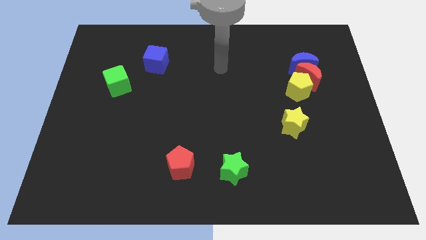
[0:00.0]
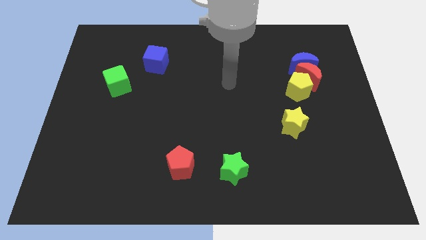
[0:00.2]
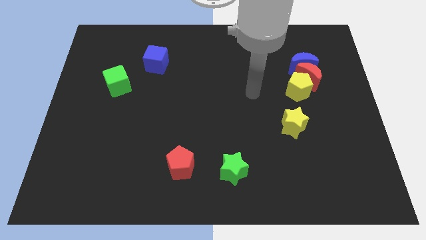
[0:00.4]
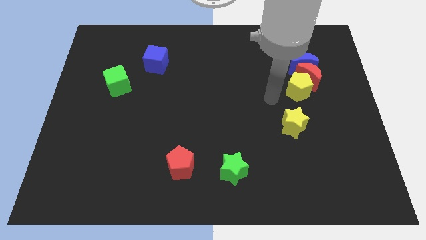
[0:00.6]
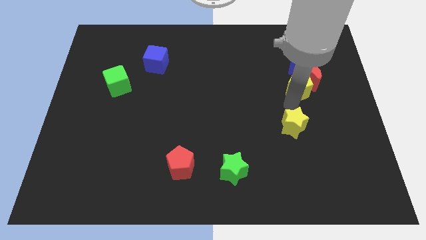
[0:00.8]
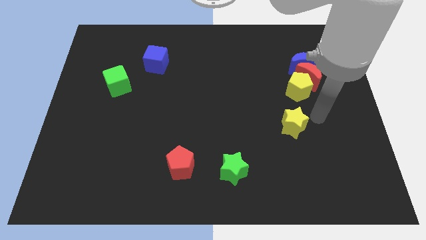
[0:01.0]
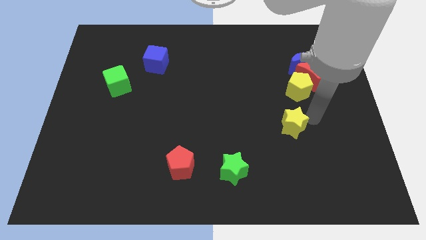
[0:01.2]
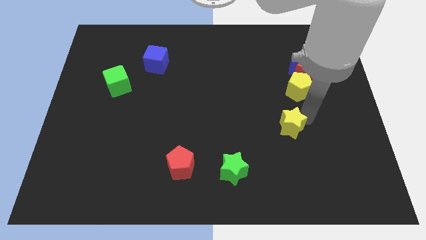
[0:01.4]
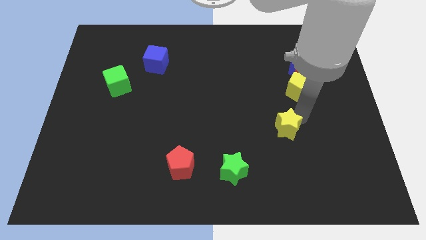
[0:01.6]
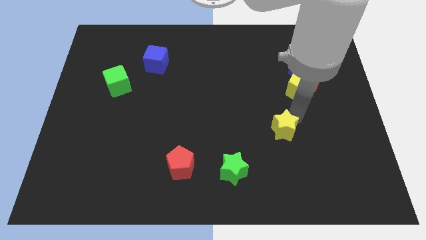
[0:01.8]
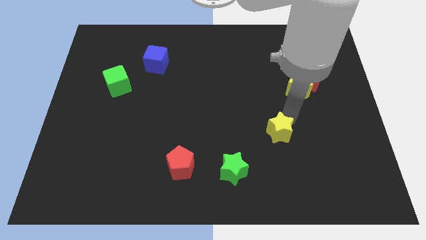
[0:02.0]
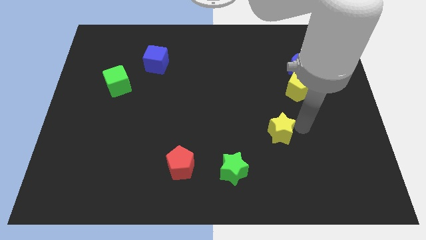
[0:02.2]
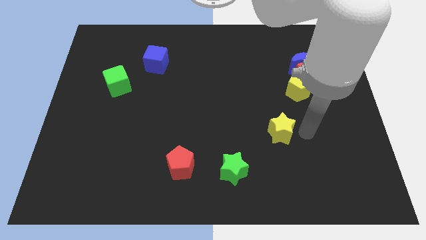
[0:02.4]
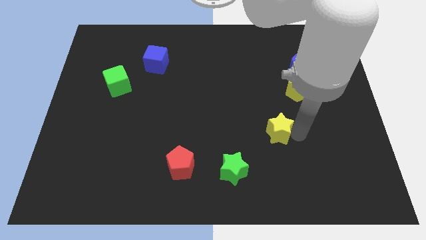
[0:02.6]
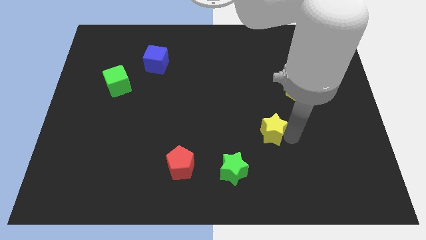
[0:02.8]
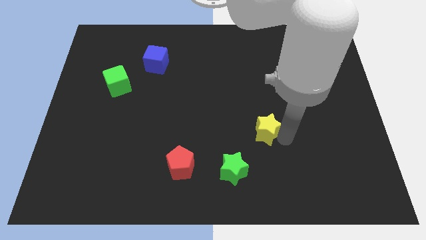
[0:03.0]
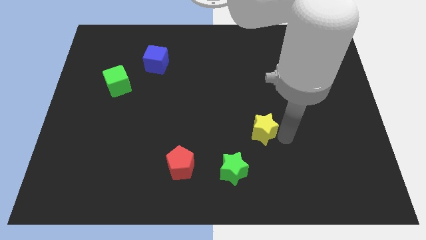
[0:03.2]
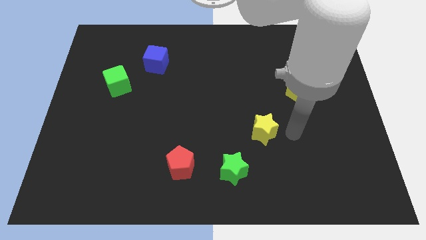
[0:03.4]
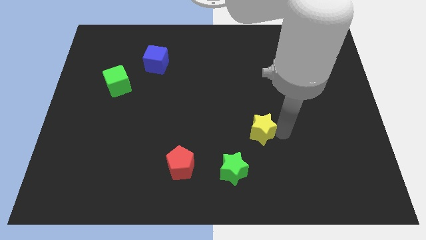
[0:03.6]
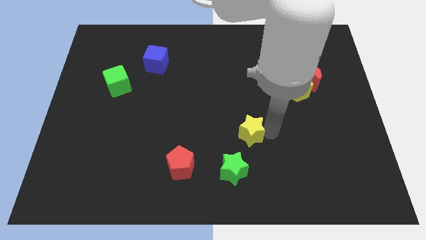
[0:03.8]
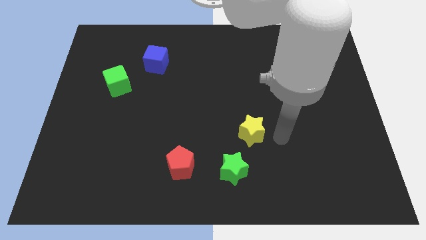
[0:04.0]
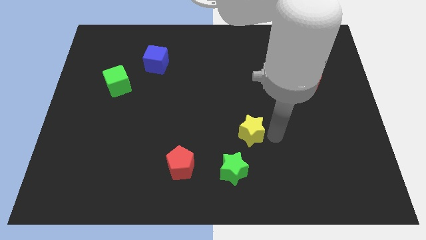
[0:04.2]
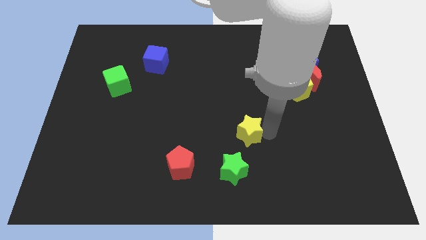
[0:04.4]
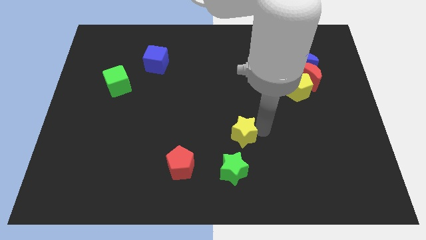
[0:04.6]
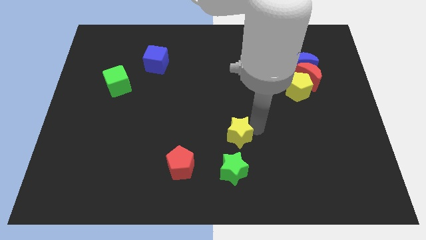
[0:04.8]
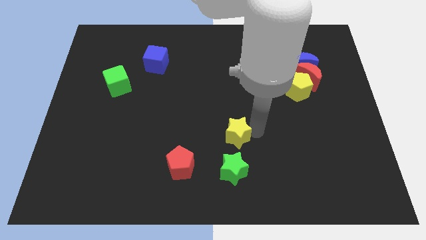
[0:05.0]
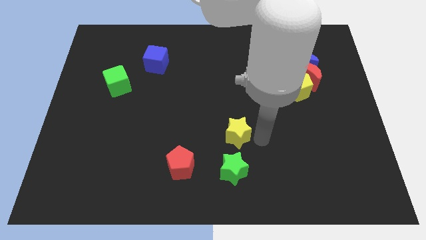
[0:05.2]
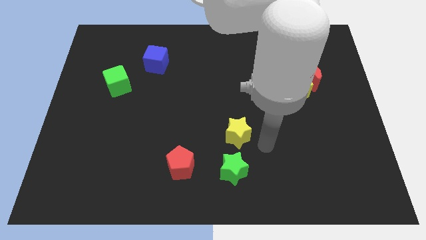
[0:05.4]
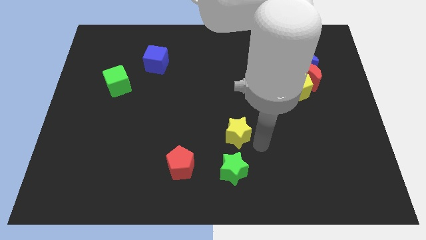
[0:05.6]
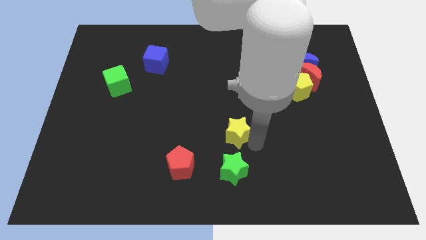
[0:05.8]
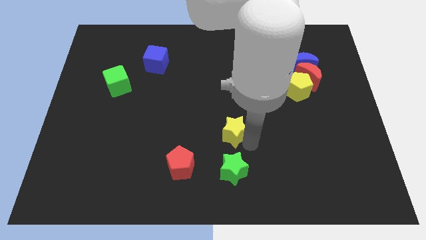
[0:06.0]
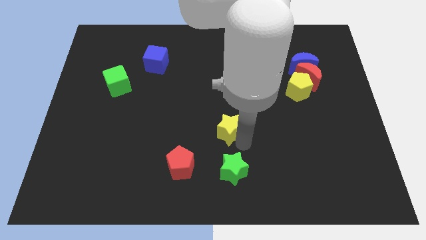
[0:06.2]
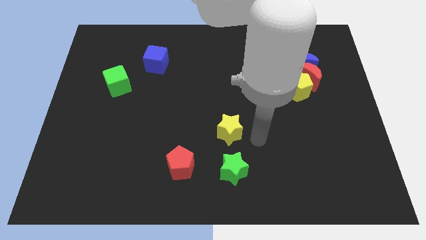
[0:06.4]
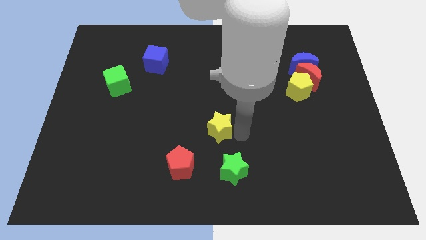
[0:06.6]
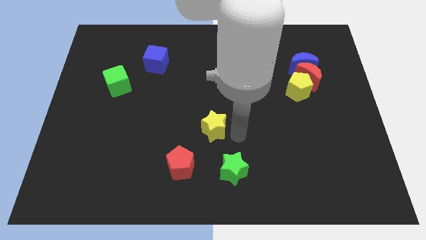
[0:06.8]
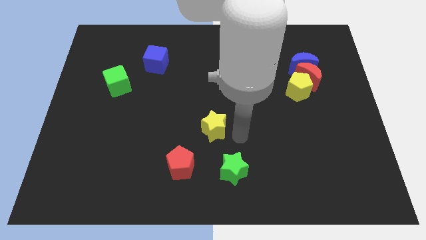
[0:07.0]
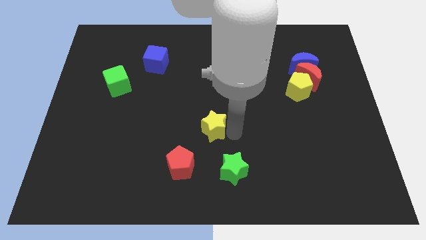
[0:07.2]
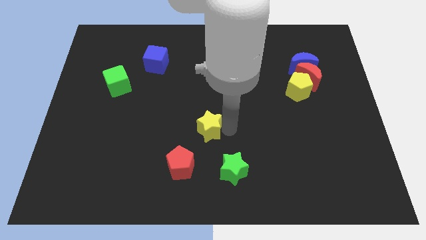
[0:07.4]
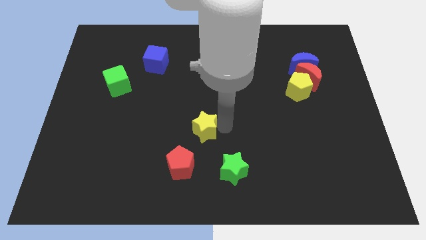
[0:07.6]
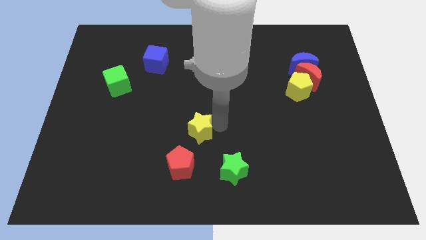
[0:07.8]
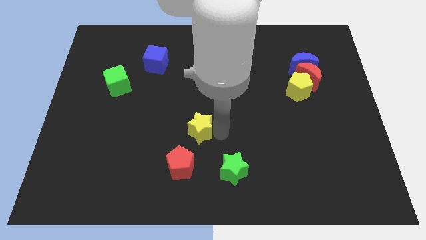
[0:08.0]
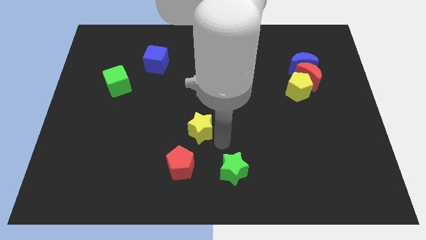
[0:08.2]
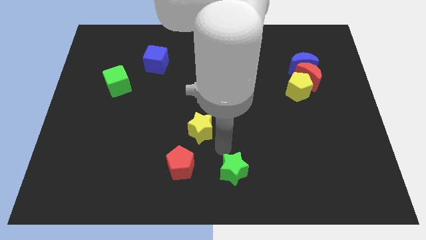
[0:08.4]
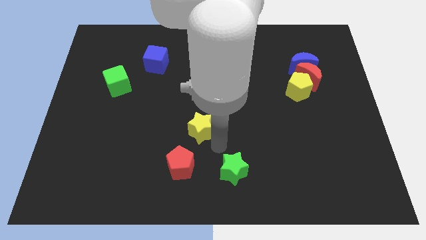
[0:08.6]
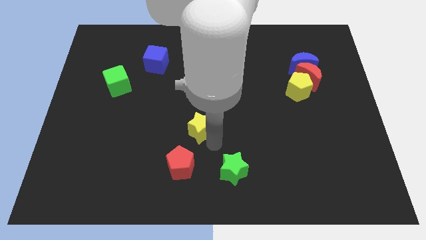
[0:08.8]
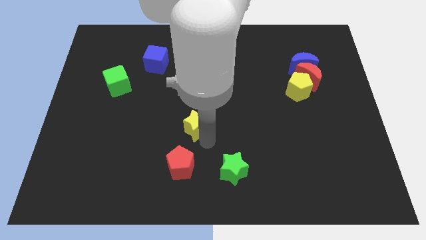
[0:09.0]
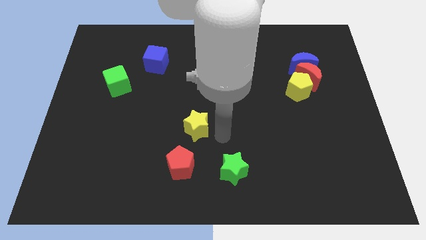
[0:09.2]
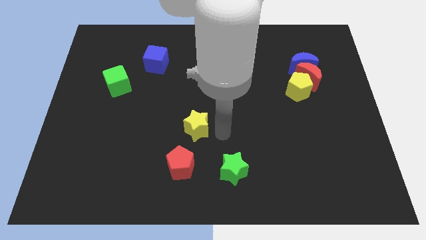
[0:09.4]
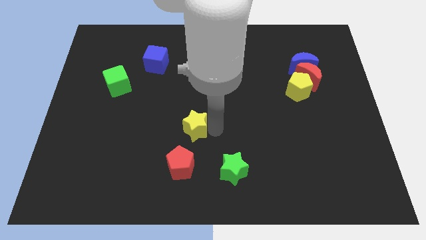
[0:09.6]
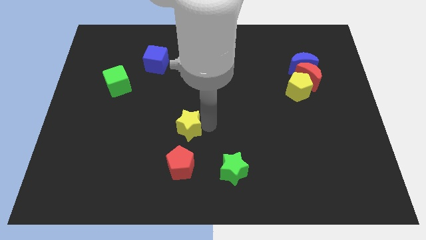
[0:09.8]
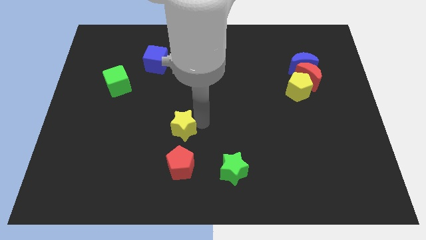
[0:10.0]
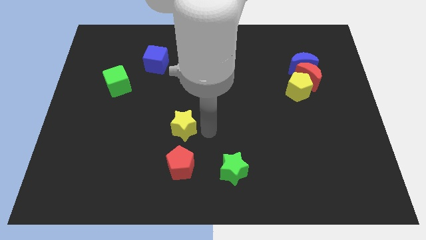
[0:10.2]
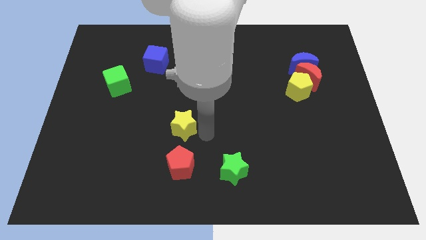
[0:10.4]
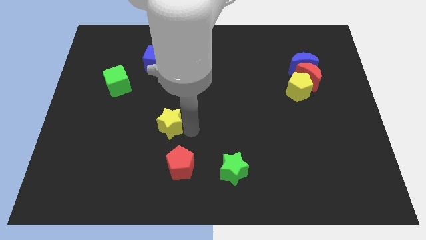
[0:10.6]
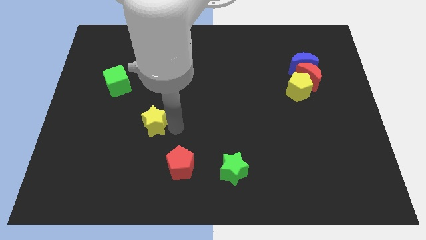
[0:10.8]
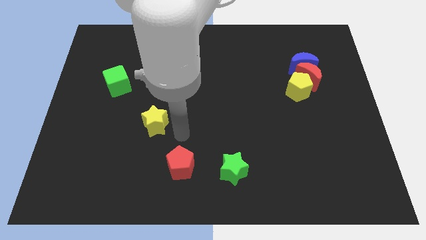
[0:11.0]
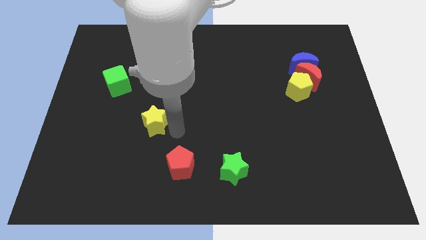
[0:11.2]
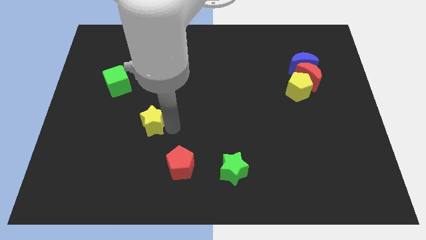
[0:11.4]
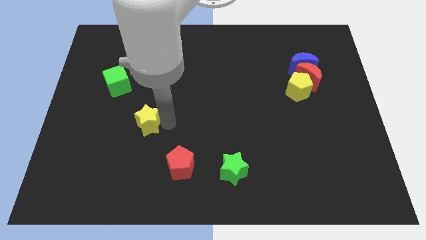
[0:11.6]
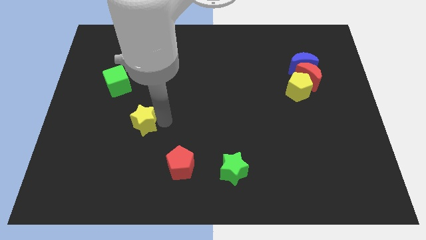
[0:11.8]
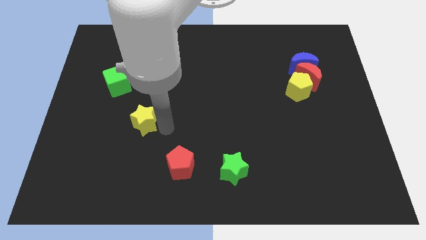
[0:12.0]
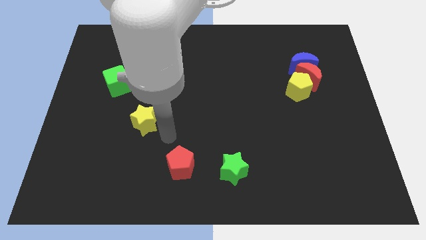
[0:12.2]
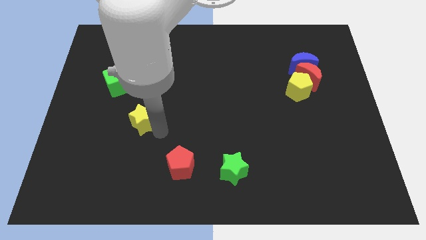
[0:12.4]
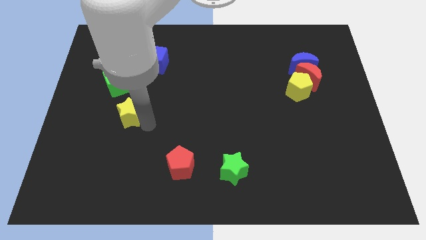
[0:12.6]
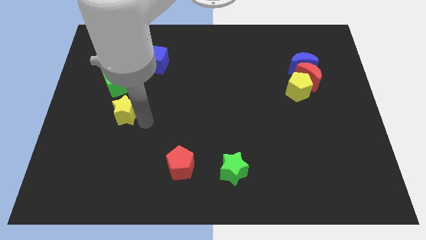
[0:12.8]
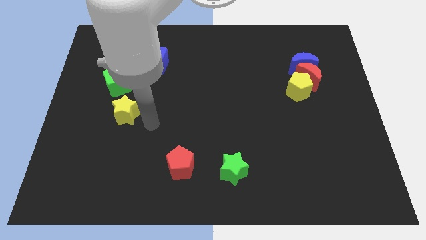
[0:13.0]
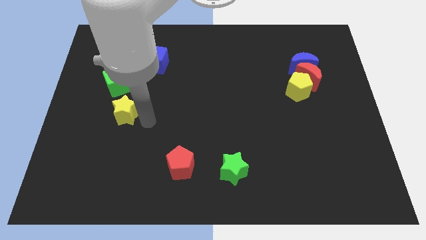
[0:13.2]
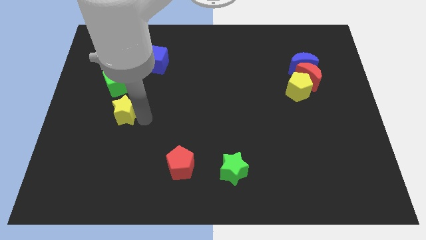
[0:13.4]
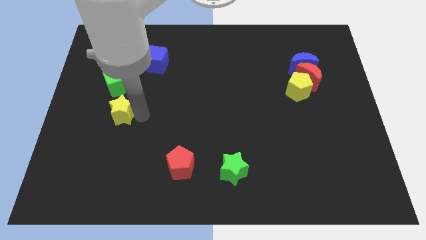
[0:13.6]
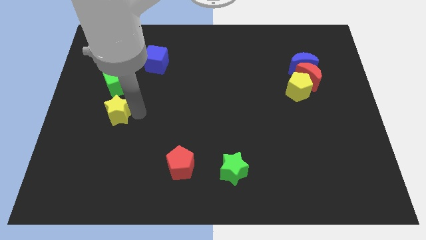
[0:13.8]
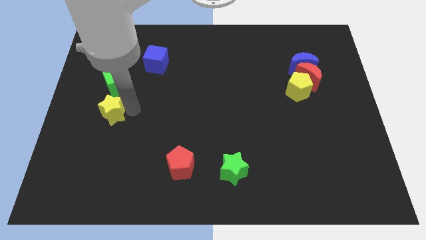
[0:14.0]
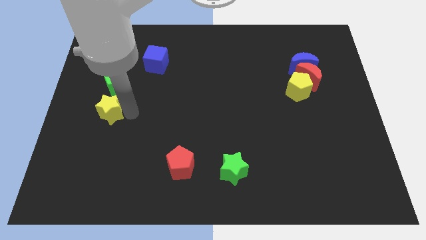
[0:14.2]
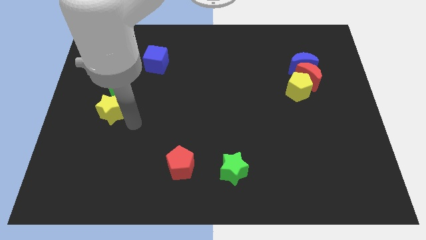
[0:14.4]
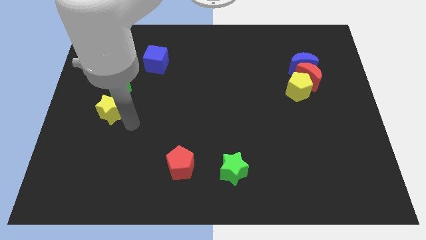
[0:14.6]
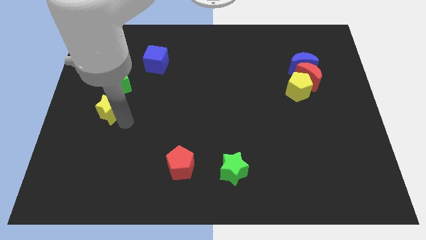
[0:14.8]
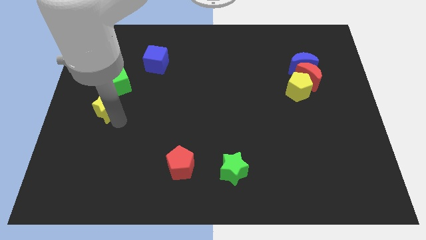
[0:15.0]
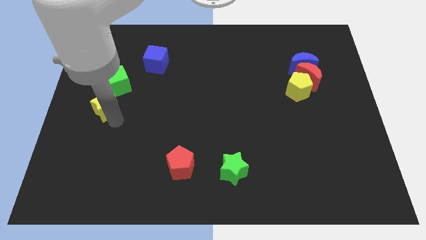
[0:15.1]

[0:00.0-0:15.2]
move the yellow star to the bottom left of the green cube
